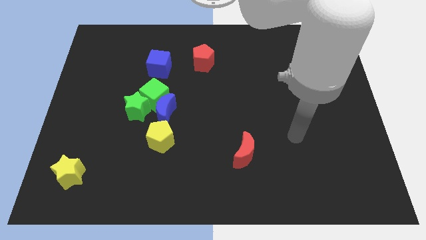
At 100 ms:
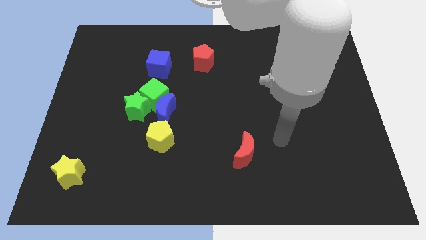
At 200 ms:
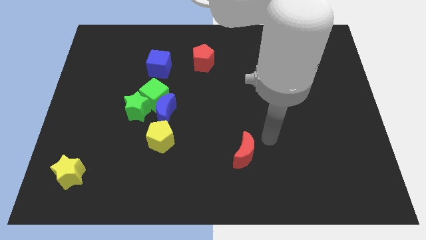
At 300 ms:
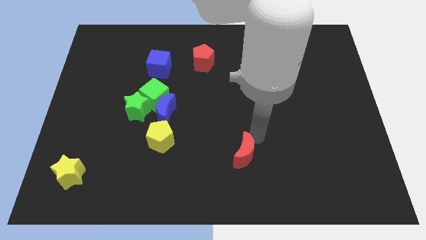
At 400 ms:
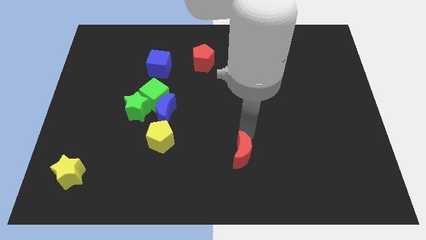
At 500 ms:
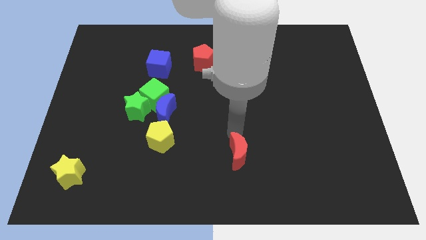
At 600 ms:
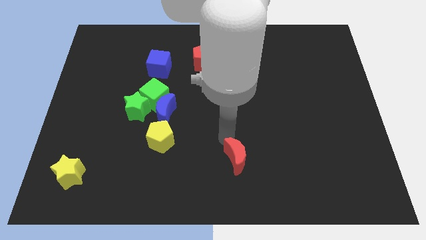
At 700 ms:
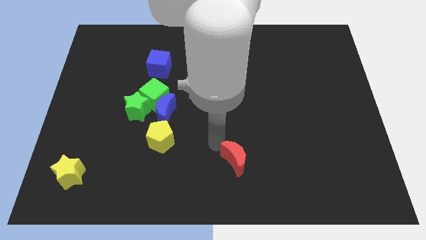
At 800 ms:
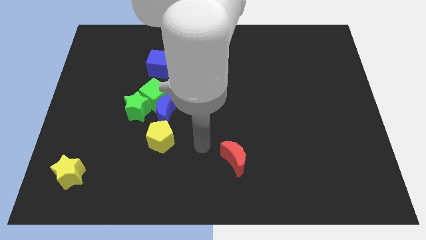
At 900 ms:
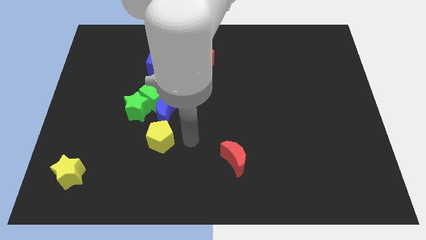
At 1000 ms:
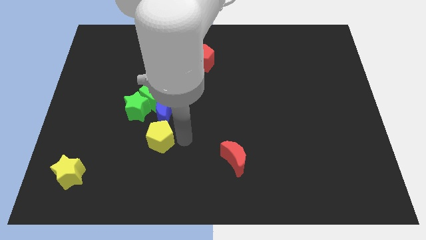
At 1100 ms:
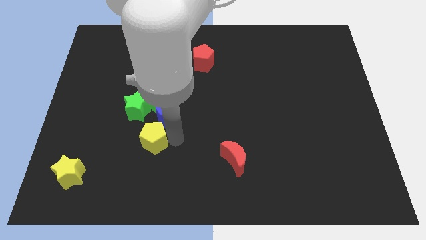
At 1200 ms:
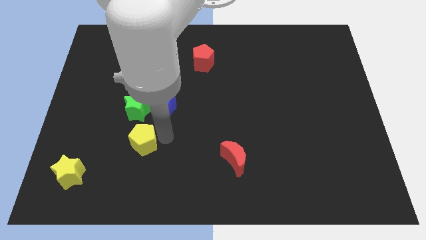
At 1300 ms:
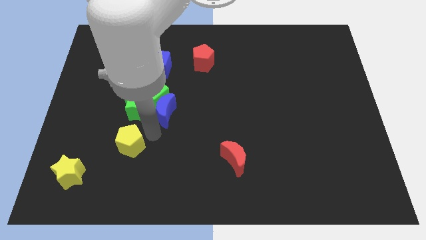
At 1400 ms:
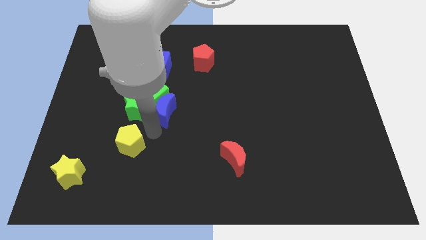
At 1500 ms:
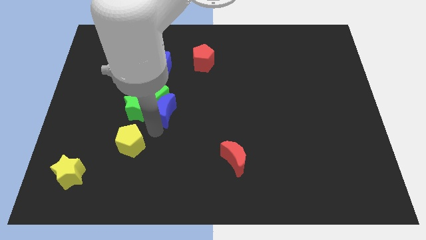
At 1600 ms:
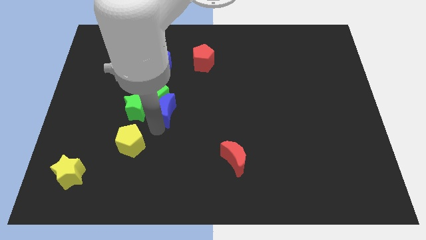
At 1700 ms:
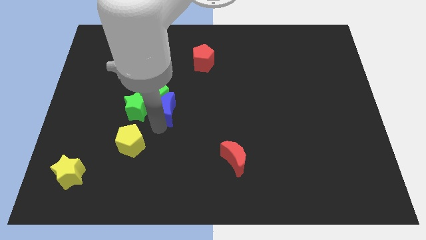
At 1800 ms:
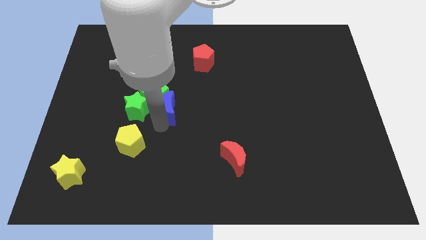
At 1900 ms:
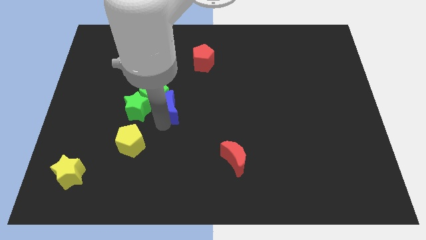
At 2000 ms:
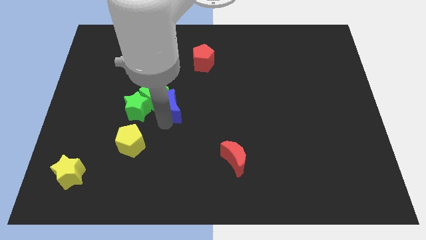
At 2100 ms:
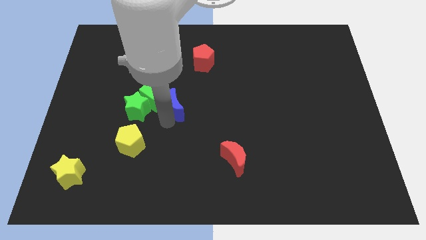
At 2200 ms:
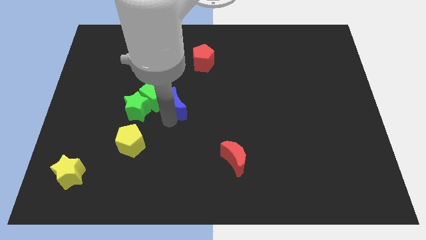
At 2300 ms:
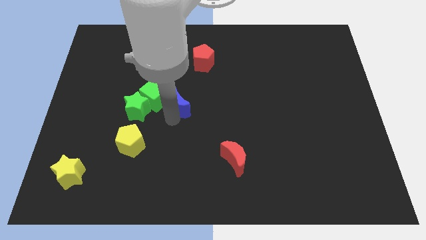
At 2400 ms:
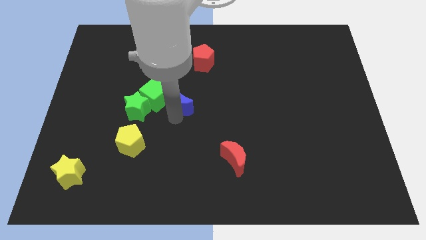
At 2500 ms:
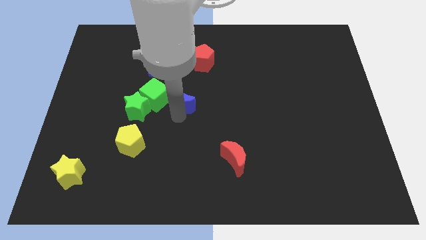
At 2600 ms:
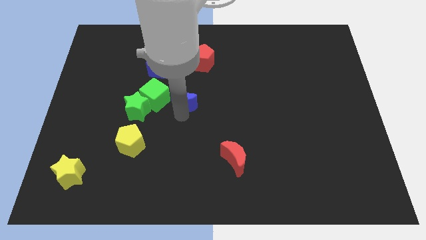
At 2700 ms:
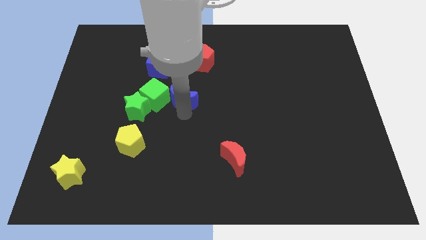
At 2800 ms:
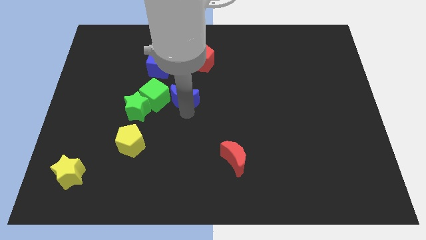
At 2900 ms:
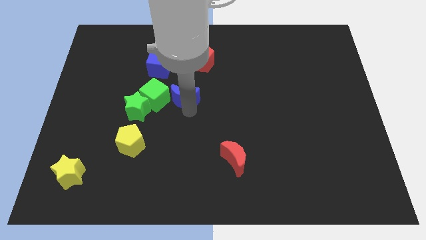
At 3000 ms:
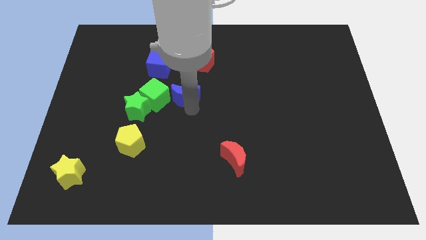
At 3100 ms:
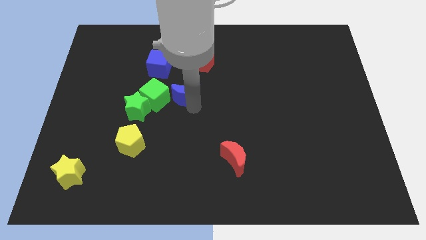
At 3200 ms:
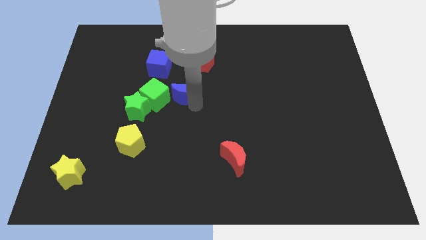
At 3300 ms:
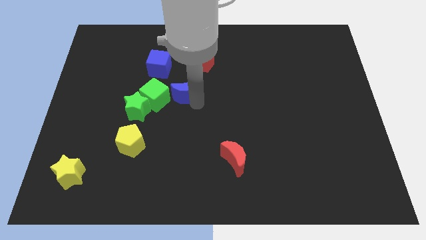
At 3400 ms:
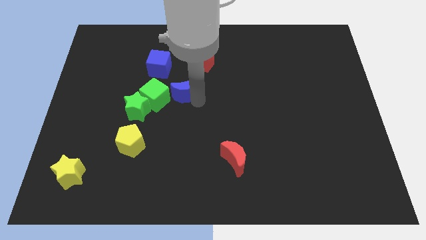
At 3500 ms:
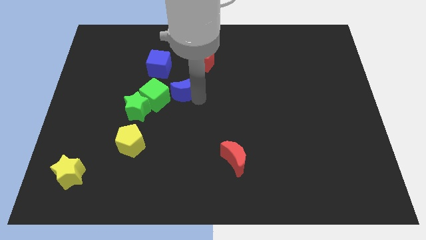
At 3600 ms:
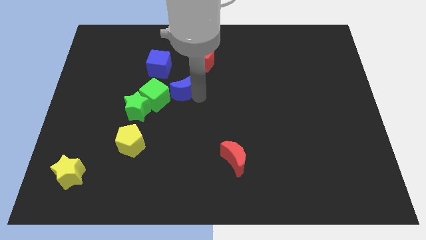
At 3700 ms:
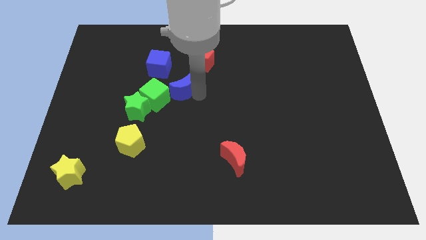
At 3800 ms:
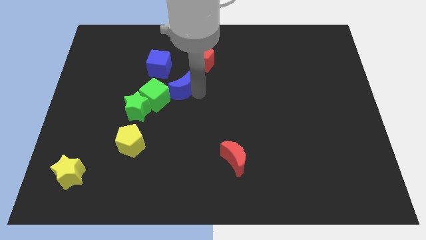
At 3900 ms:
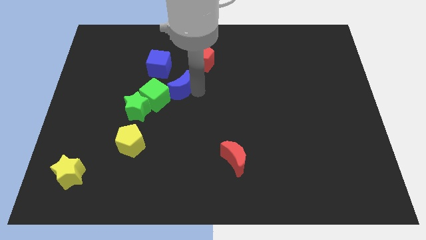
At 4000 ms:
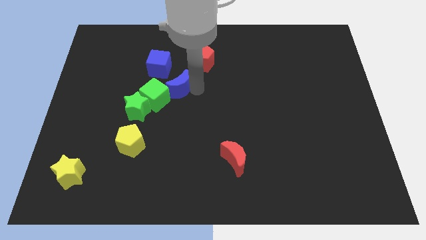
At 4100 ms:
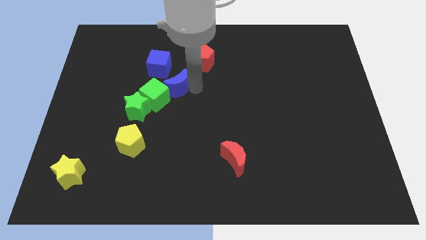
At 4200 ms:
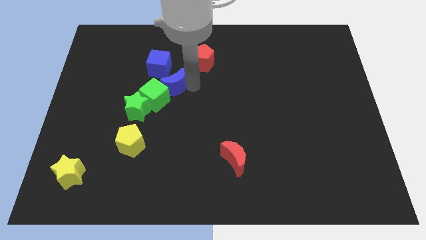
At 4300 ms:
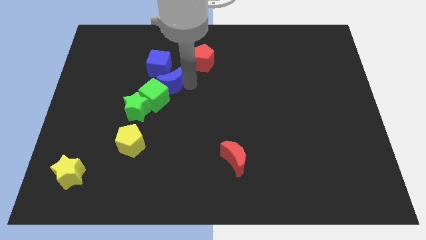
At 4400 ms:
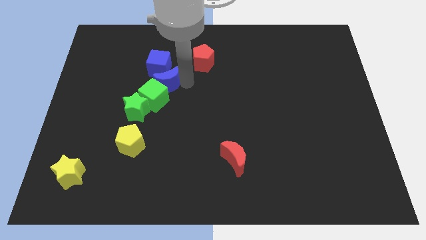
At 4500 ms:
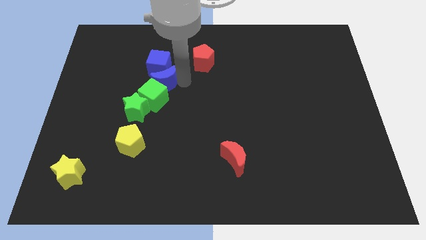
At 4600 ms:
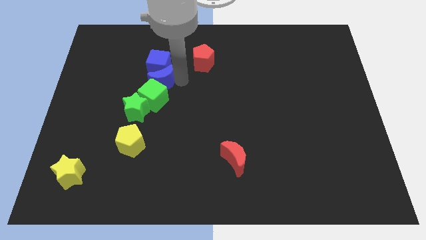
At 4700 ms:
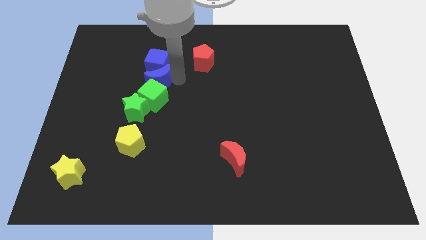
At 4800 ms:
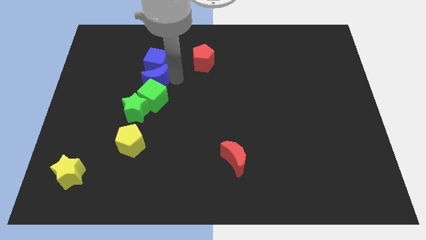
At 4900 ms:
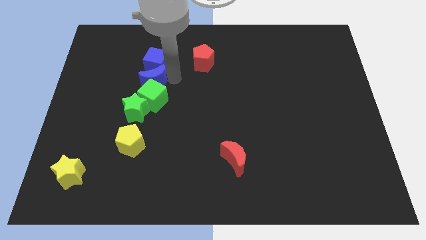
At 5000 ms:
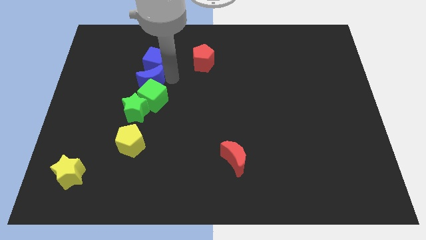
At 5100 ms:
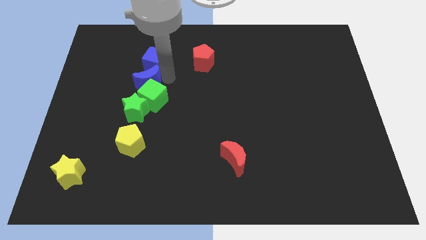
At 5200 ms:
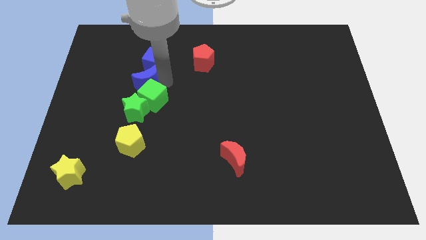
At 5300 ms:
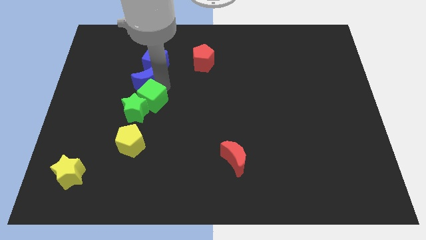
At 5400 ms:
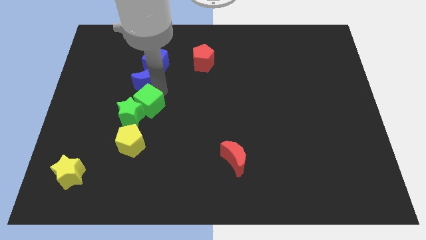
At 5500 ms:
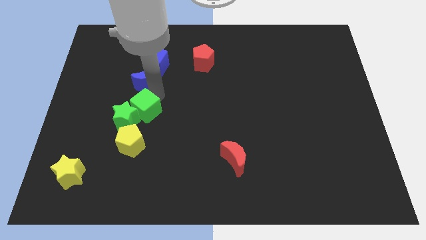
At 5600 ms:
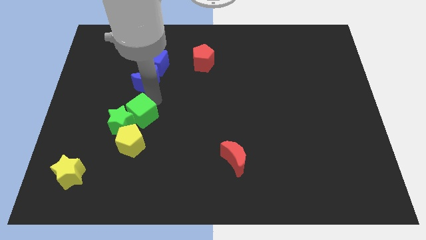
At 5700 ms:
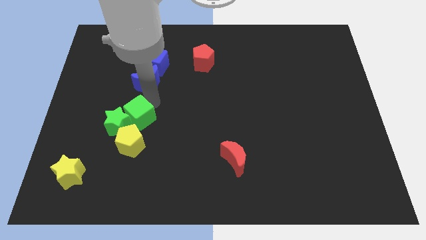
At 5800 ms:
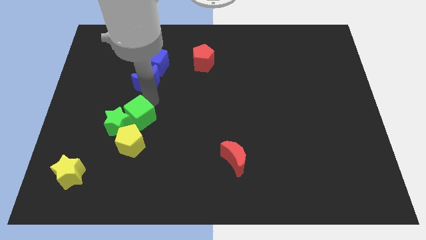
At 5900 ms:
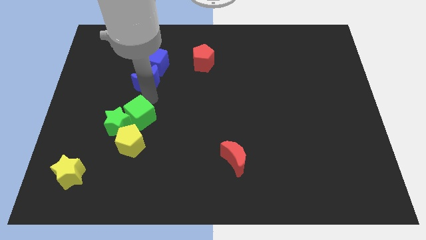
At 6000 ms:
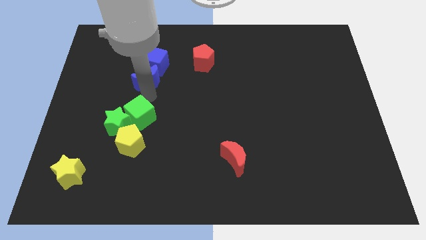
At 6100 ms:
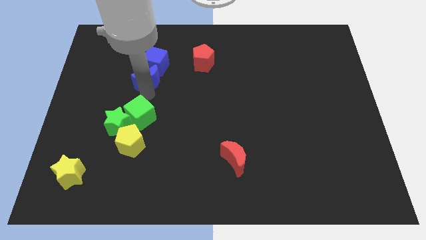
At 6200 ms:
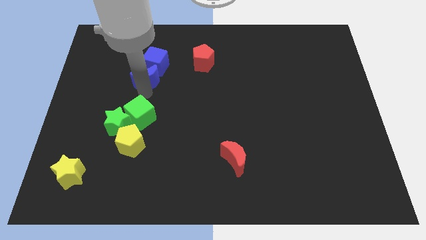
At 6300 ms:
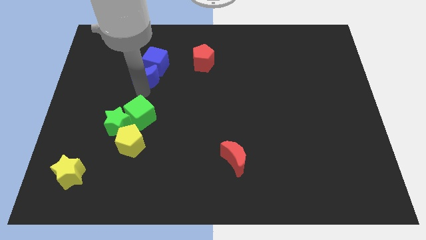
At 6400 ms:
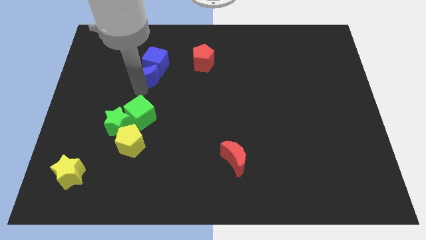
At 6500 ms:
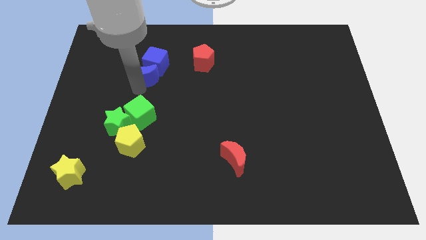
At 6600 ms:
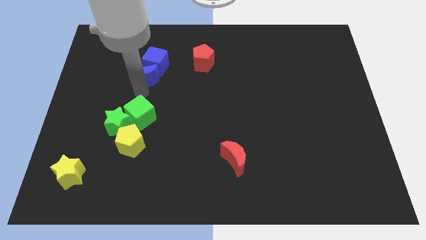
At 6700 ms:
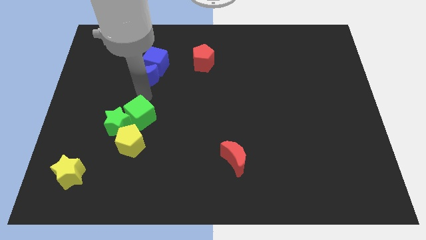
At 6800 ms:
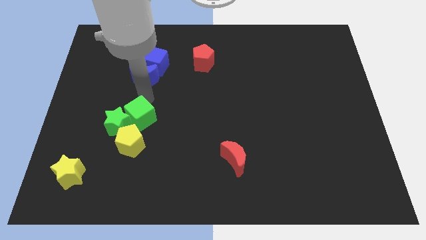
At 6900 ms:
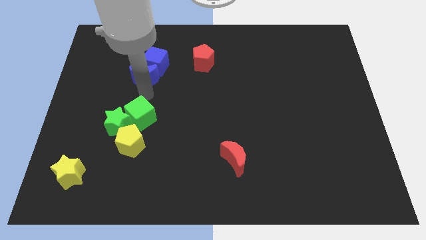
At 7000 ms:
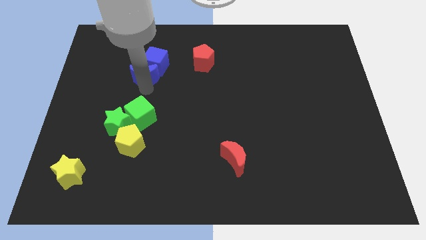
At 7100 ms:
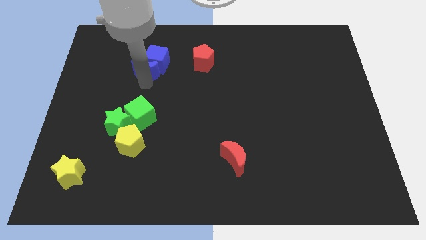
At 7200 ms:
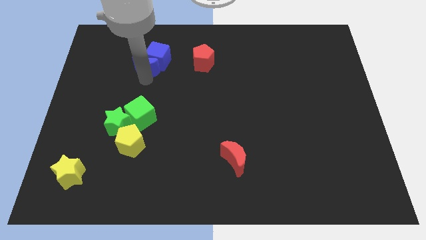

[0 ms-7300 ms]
move the blue moon just left of the red pentagon
